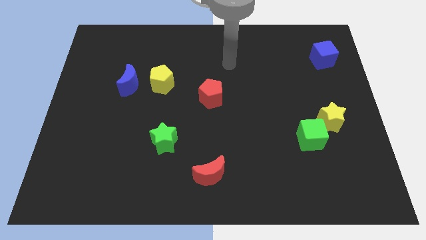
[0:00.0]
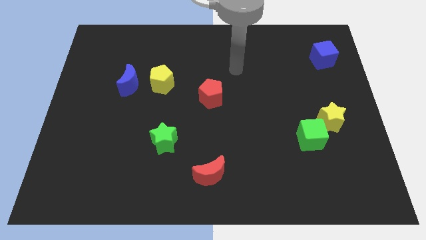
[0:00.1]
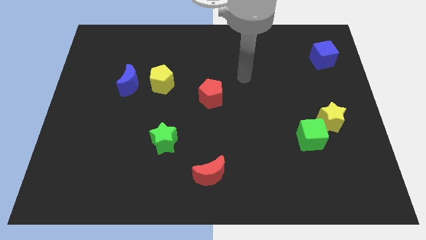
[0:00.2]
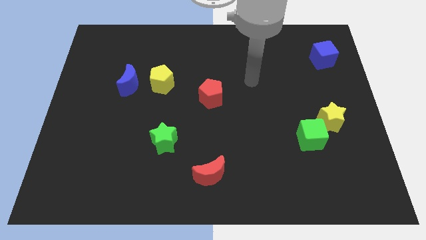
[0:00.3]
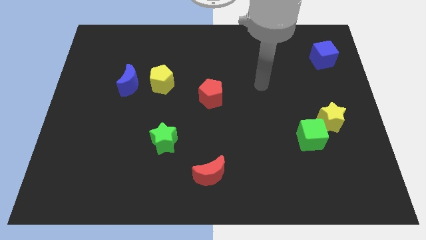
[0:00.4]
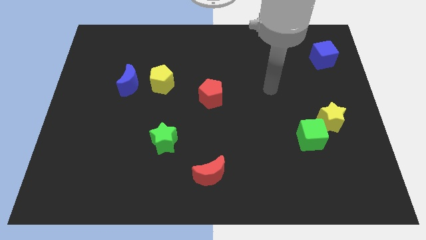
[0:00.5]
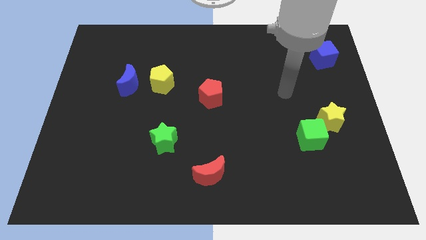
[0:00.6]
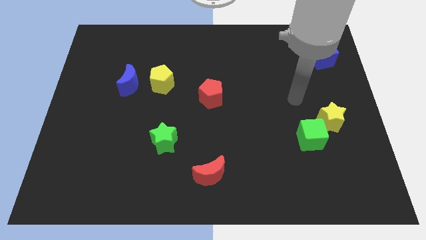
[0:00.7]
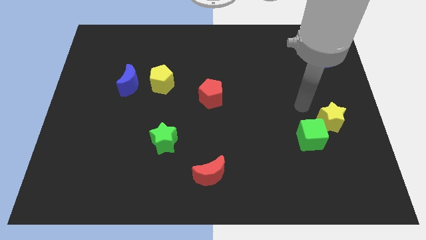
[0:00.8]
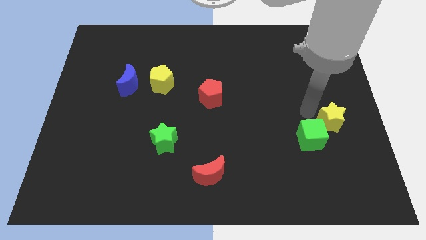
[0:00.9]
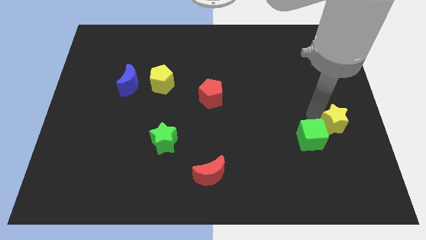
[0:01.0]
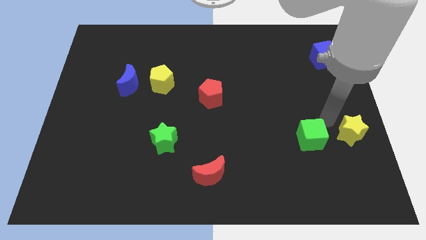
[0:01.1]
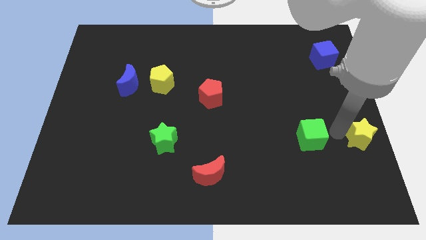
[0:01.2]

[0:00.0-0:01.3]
pull the green cube apart from the yellow star

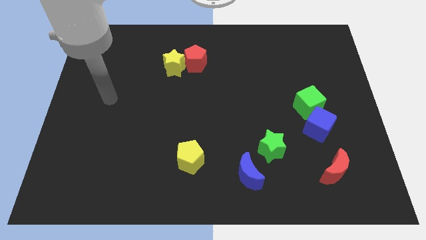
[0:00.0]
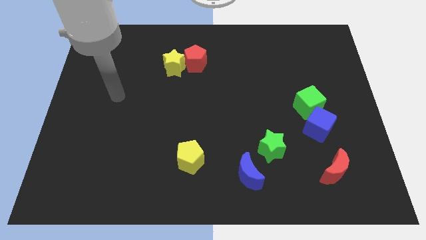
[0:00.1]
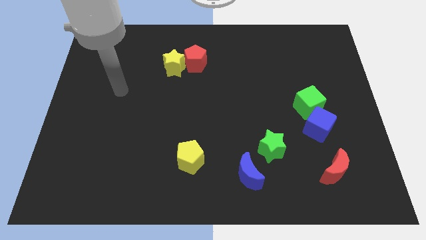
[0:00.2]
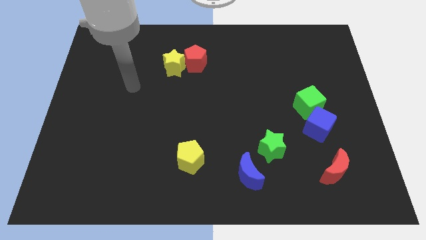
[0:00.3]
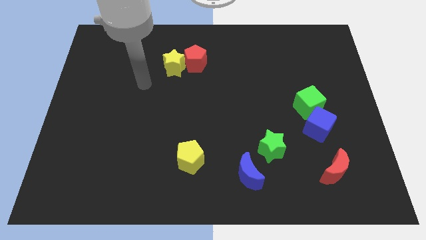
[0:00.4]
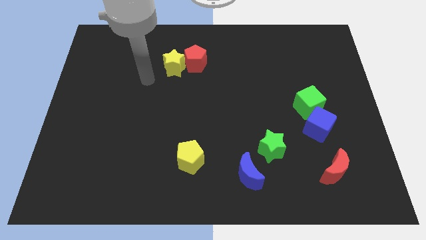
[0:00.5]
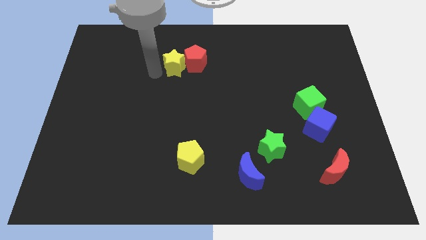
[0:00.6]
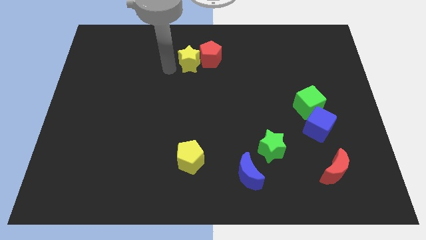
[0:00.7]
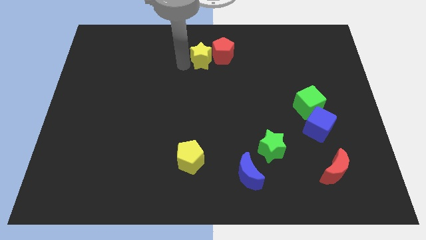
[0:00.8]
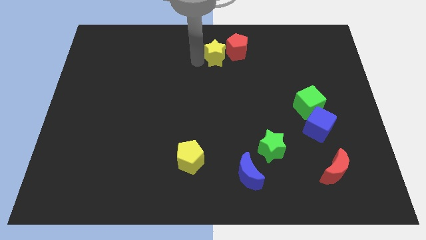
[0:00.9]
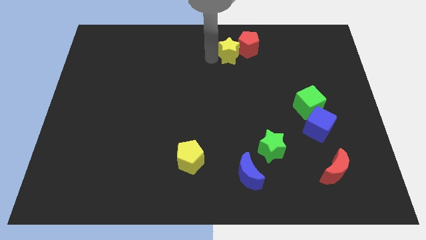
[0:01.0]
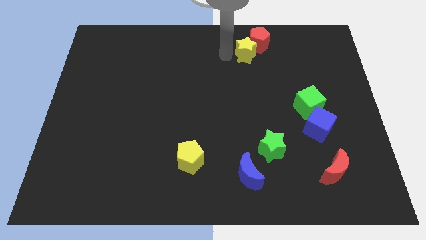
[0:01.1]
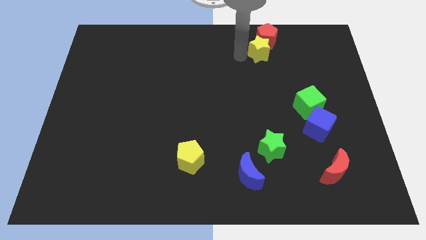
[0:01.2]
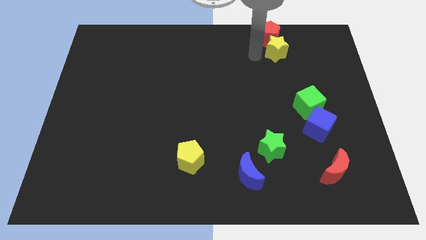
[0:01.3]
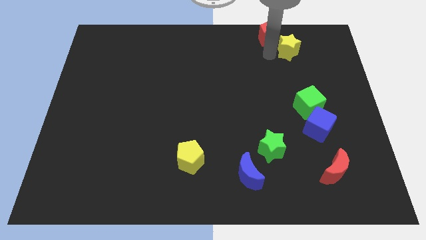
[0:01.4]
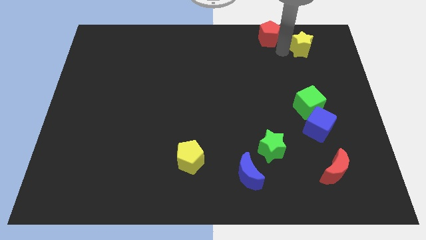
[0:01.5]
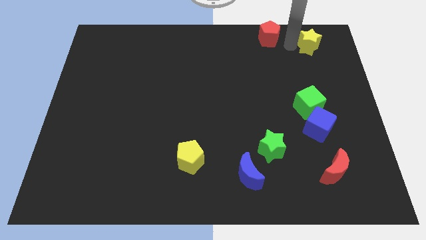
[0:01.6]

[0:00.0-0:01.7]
pull the red pentagon apart from the yellow star

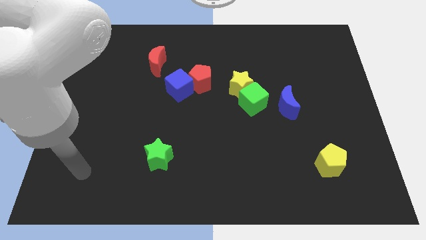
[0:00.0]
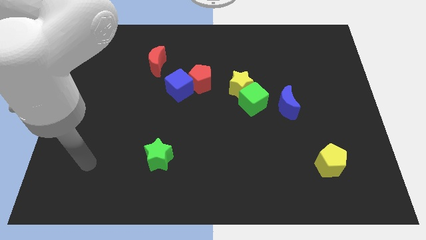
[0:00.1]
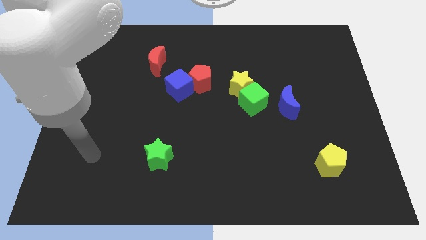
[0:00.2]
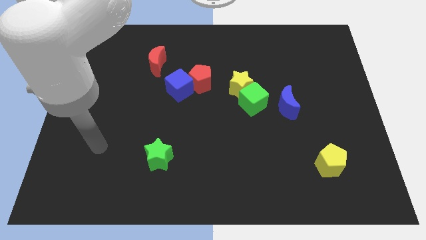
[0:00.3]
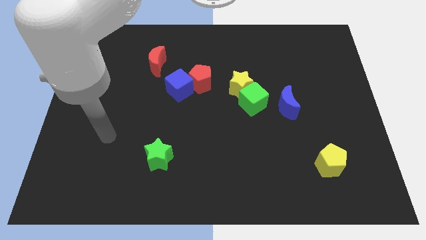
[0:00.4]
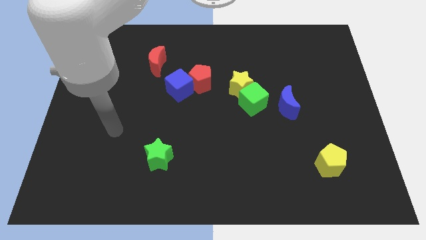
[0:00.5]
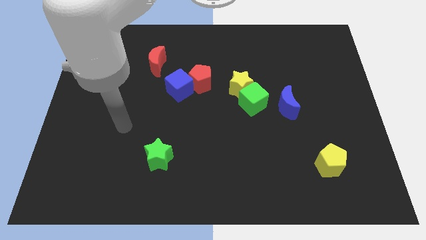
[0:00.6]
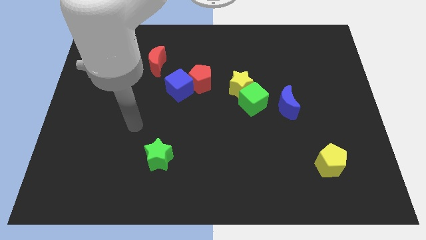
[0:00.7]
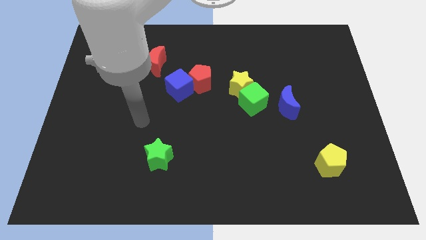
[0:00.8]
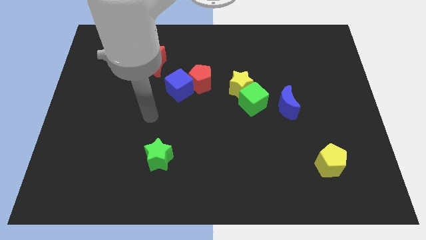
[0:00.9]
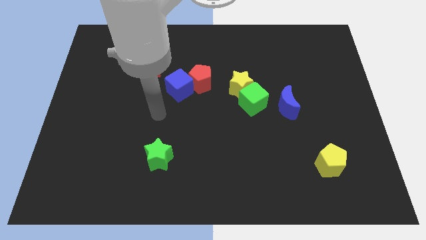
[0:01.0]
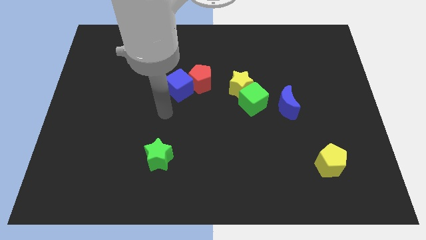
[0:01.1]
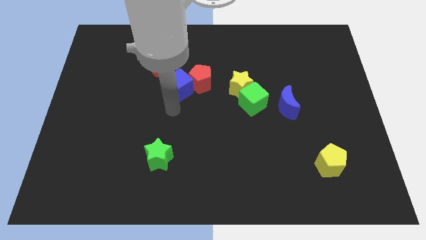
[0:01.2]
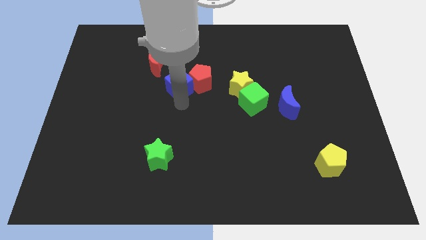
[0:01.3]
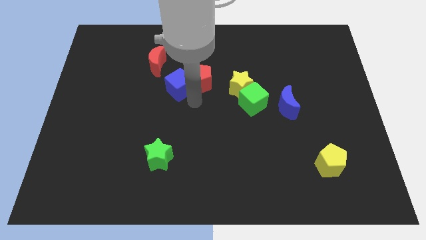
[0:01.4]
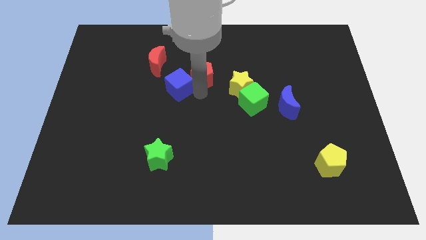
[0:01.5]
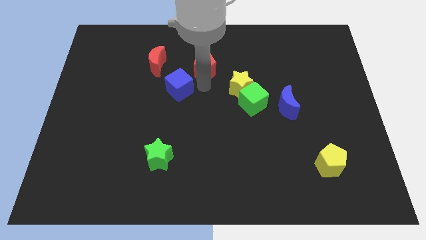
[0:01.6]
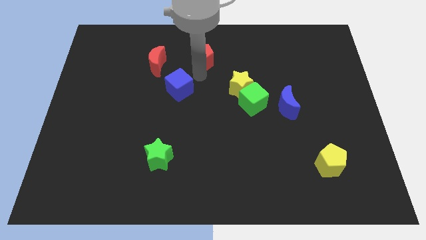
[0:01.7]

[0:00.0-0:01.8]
pull the blue cube apart from the red pentagon

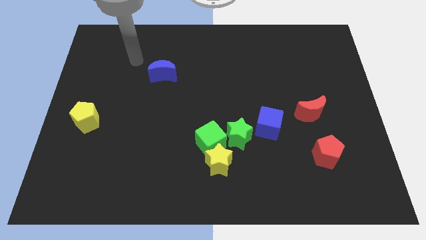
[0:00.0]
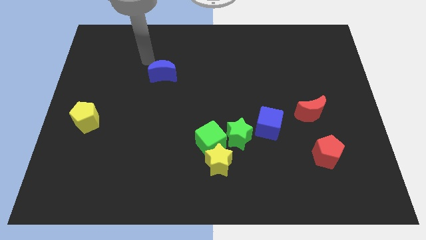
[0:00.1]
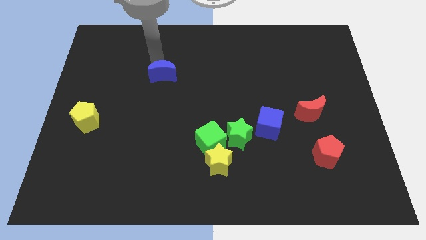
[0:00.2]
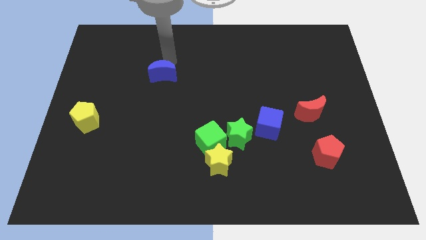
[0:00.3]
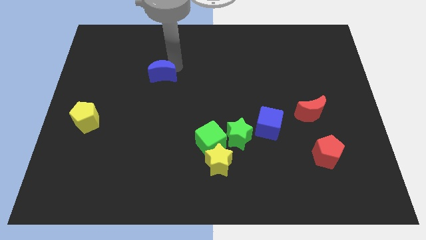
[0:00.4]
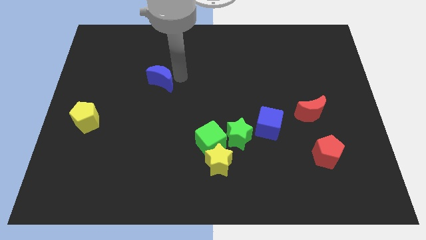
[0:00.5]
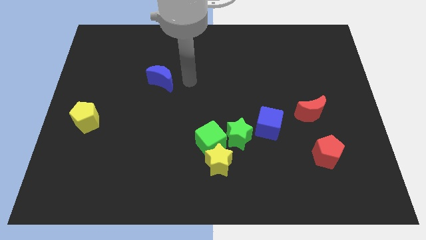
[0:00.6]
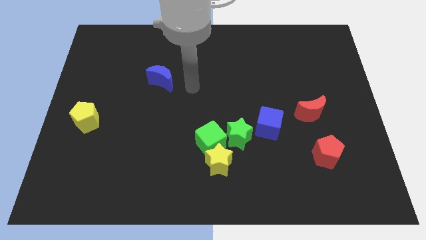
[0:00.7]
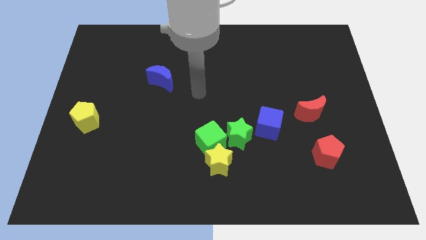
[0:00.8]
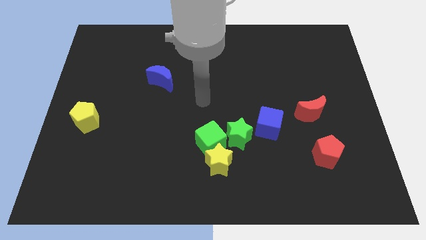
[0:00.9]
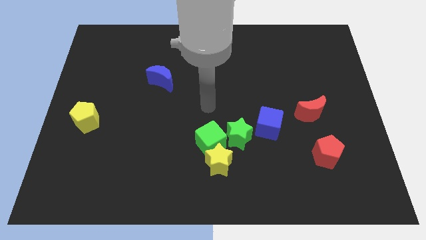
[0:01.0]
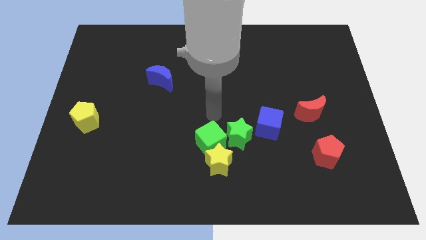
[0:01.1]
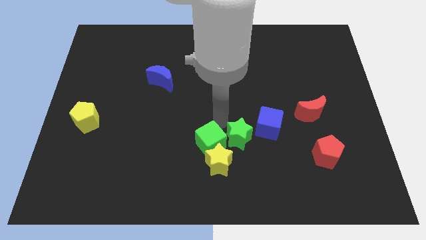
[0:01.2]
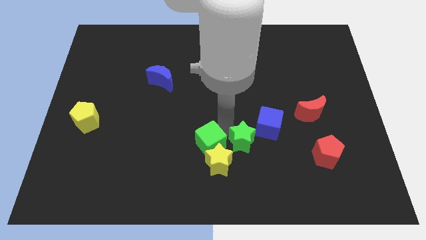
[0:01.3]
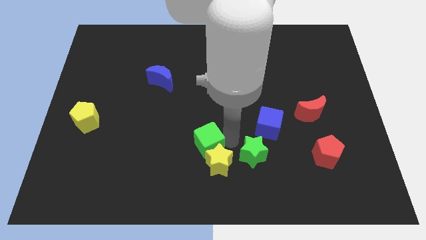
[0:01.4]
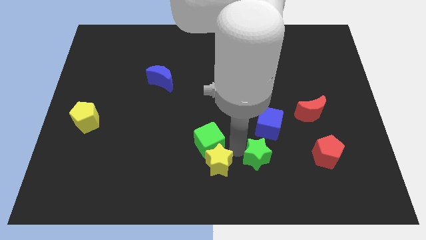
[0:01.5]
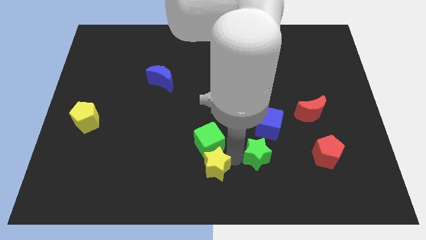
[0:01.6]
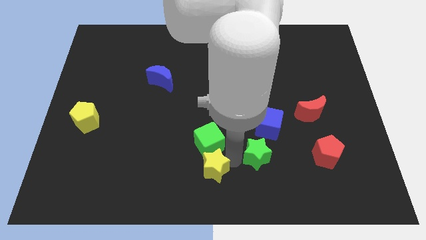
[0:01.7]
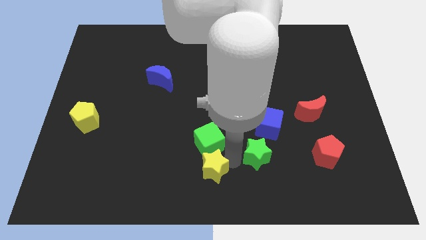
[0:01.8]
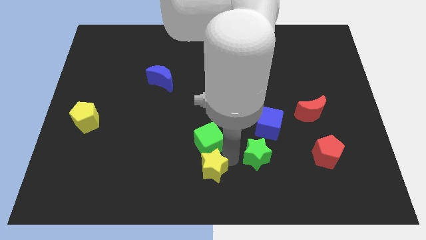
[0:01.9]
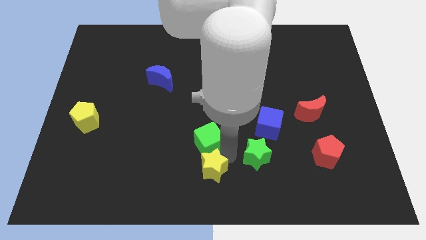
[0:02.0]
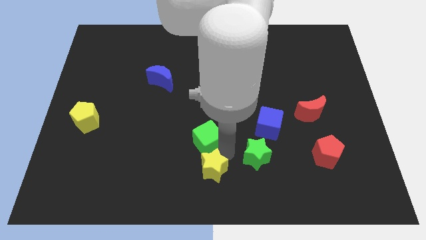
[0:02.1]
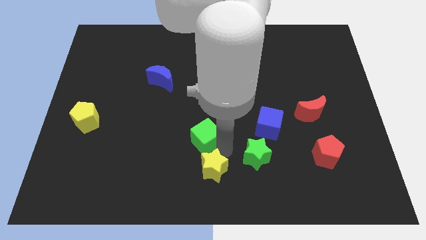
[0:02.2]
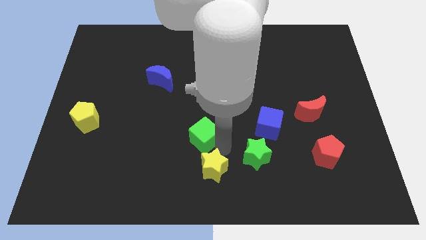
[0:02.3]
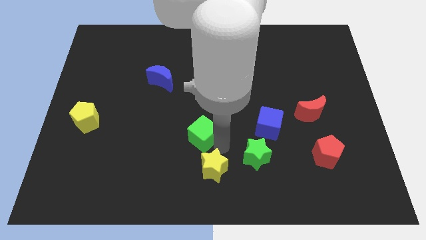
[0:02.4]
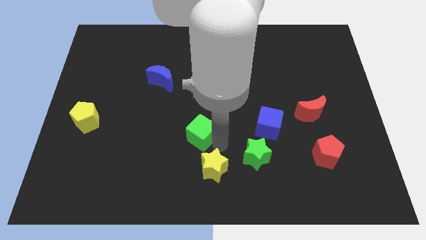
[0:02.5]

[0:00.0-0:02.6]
separate the green cube from the yellow star and green star

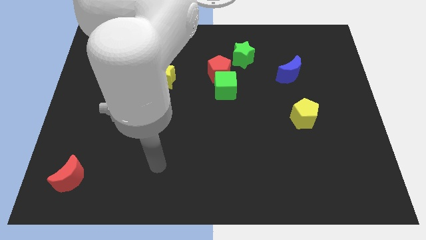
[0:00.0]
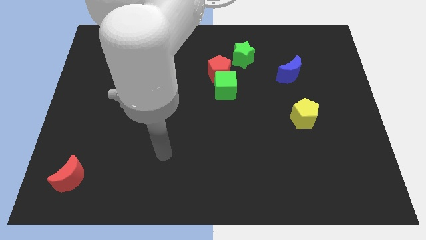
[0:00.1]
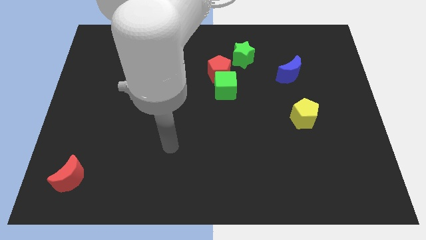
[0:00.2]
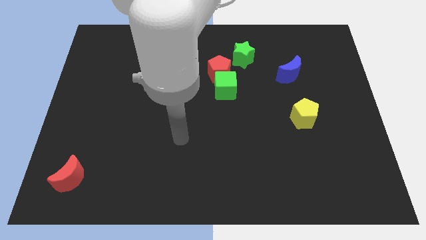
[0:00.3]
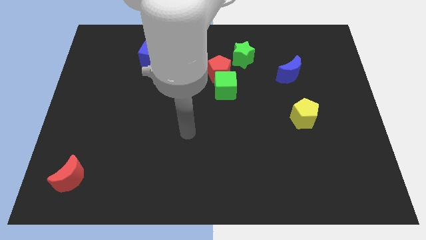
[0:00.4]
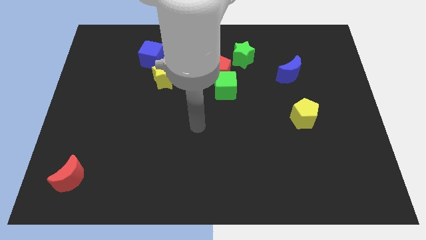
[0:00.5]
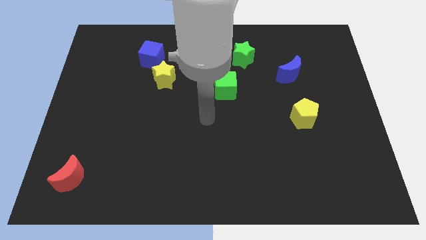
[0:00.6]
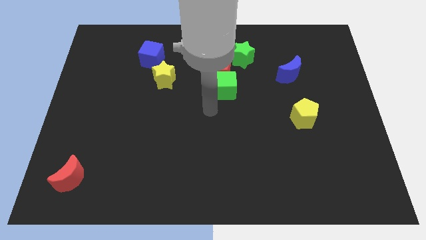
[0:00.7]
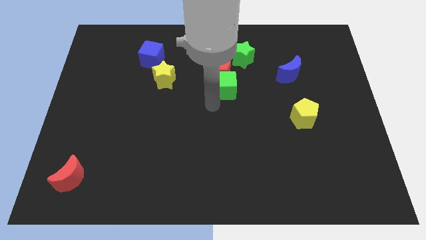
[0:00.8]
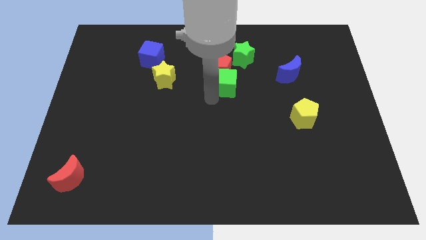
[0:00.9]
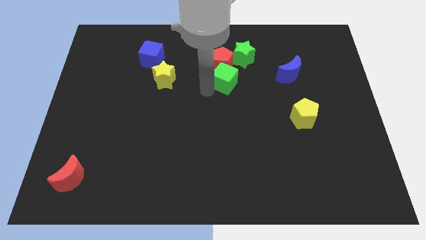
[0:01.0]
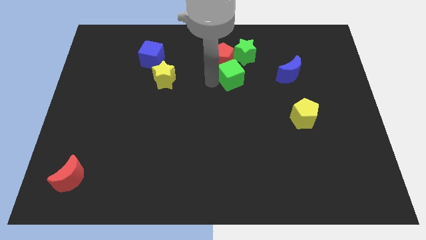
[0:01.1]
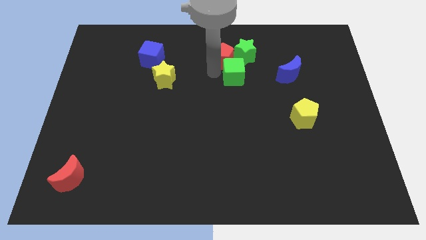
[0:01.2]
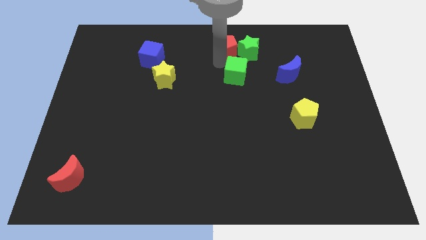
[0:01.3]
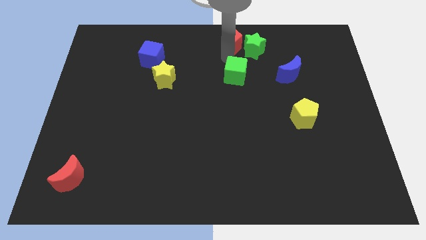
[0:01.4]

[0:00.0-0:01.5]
pull the green cube apart from the red pentagon

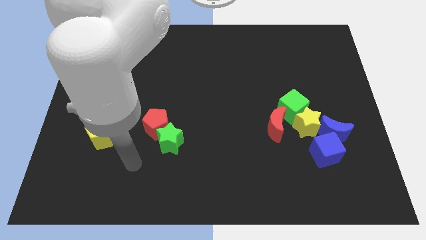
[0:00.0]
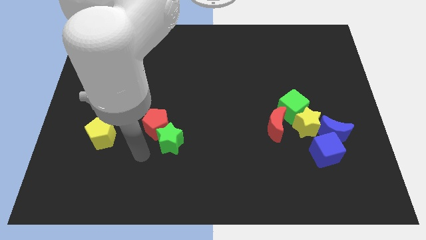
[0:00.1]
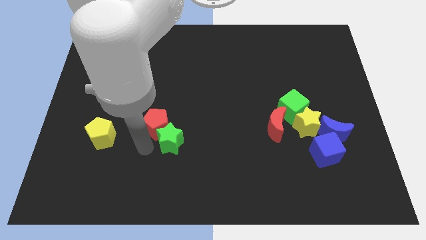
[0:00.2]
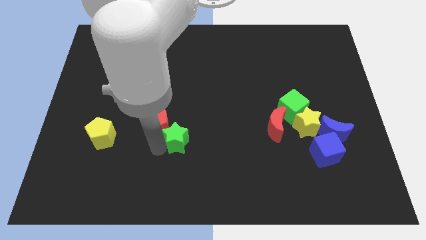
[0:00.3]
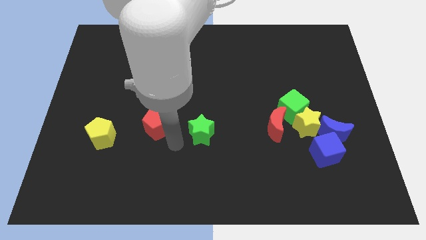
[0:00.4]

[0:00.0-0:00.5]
separate the red pentagon from the green star
